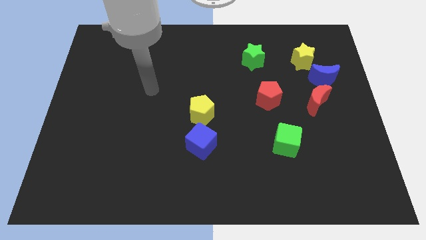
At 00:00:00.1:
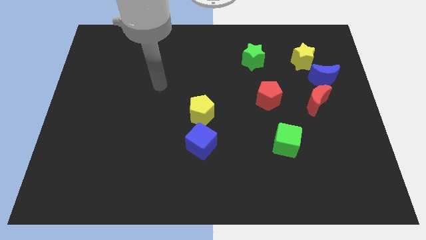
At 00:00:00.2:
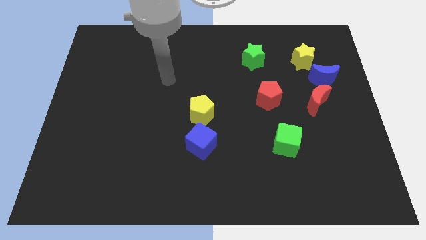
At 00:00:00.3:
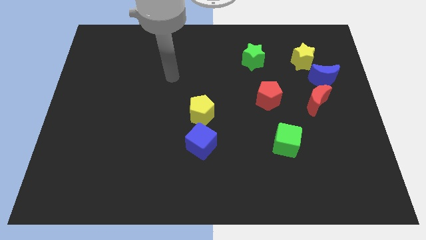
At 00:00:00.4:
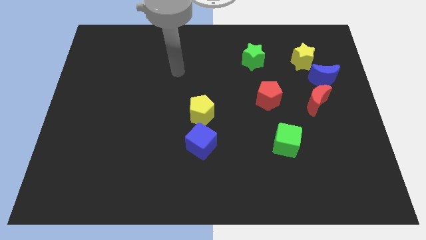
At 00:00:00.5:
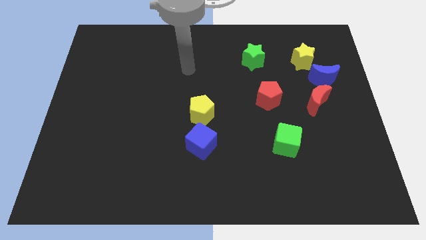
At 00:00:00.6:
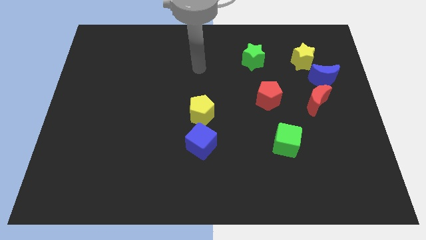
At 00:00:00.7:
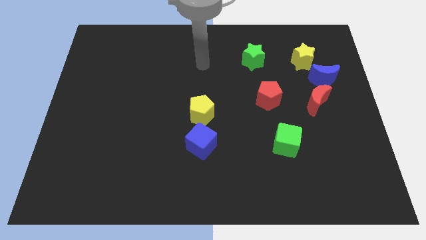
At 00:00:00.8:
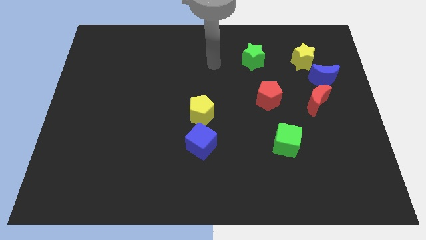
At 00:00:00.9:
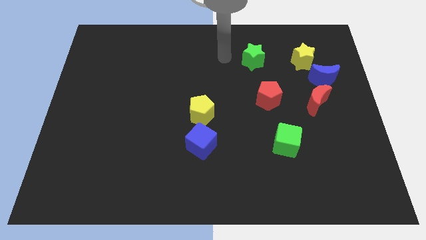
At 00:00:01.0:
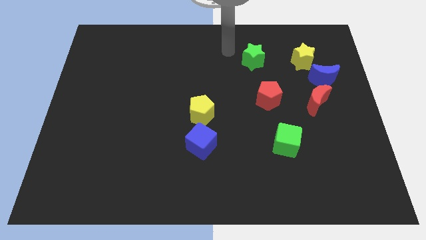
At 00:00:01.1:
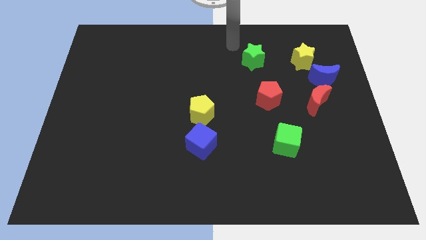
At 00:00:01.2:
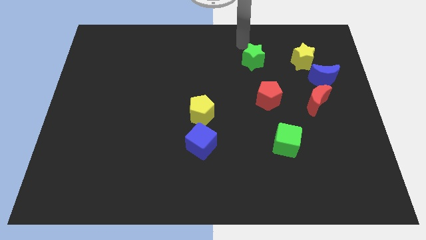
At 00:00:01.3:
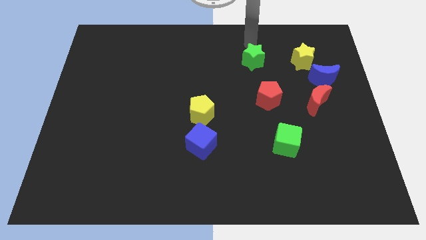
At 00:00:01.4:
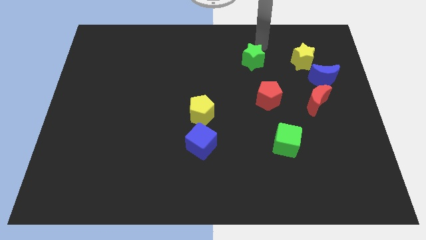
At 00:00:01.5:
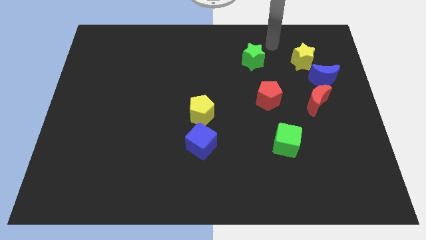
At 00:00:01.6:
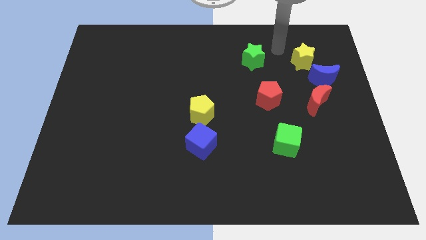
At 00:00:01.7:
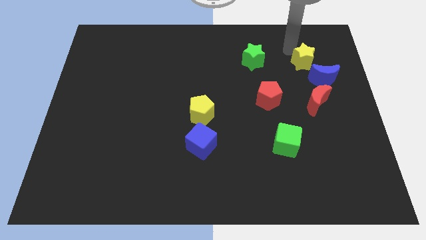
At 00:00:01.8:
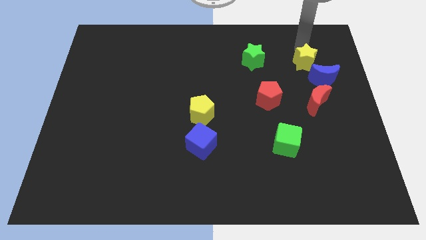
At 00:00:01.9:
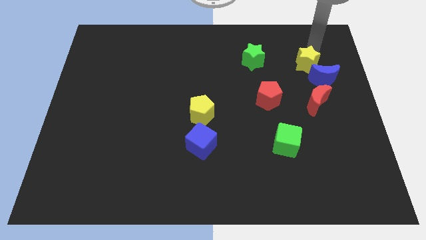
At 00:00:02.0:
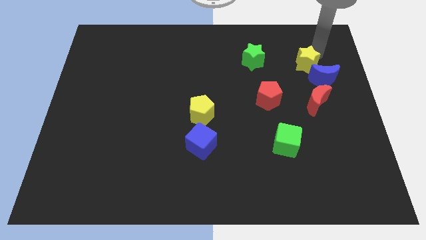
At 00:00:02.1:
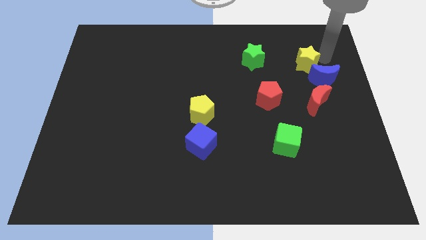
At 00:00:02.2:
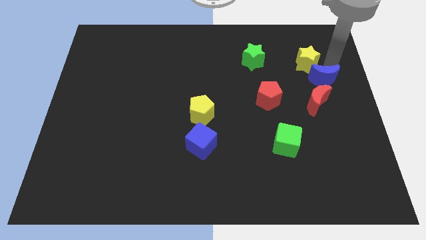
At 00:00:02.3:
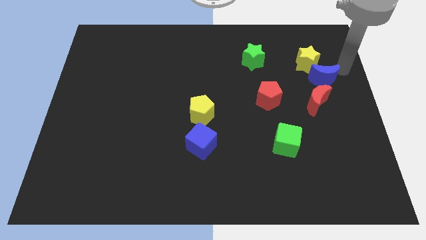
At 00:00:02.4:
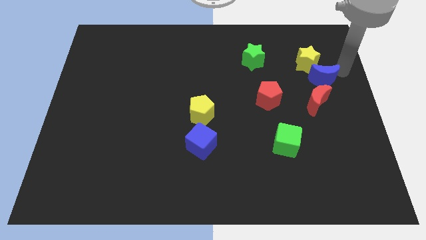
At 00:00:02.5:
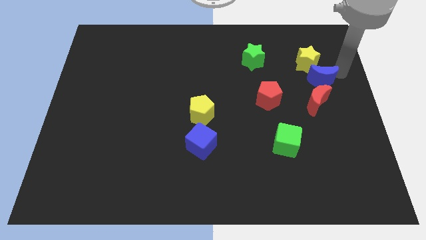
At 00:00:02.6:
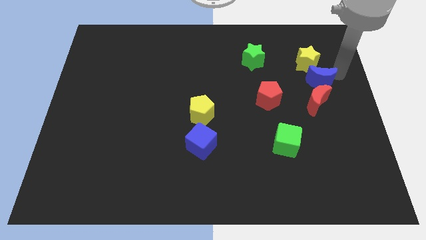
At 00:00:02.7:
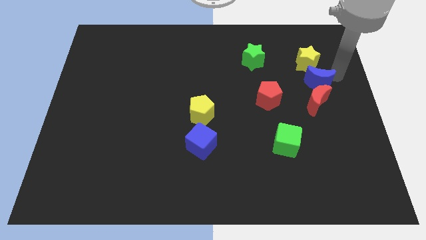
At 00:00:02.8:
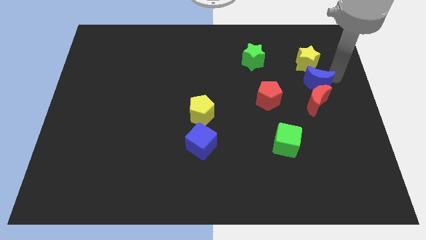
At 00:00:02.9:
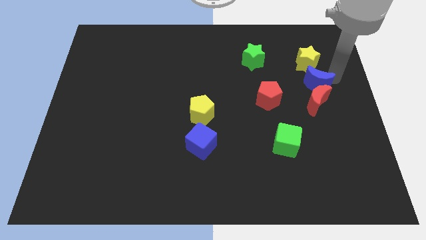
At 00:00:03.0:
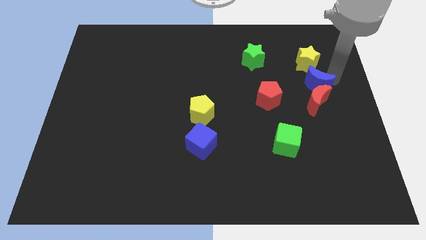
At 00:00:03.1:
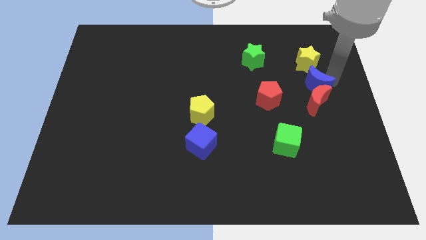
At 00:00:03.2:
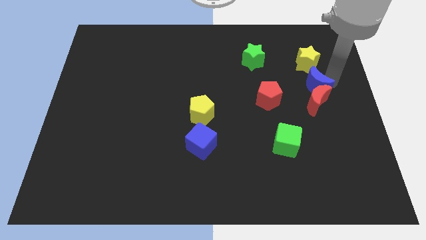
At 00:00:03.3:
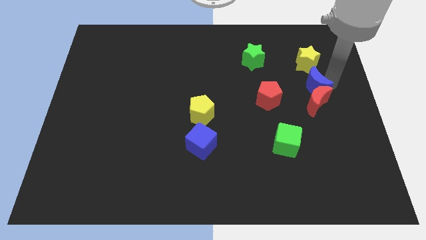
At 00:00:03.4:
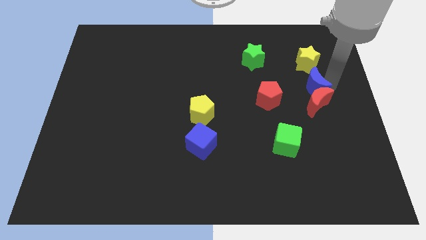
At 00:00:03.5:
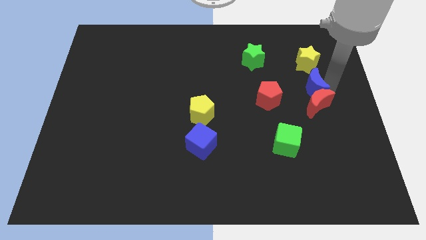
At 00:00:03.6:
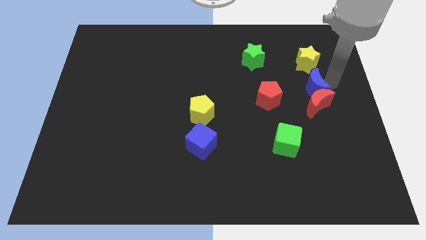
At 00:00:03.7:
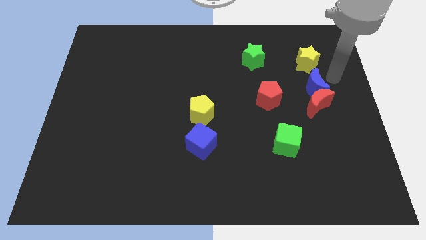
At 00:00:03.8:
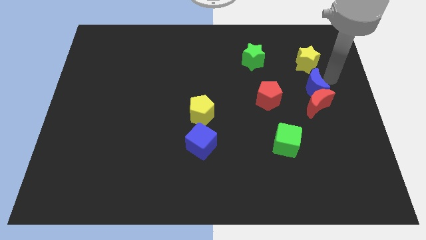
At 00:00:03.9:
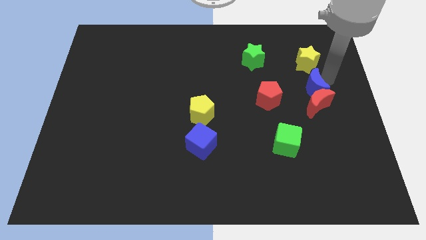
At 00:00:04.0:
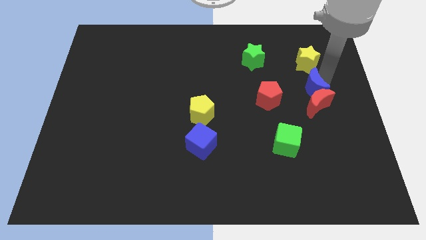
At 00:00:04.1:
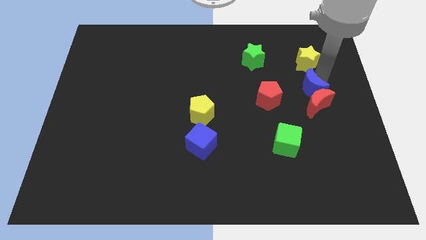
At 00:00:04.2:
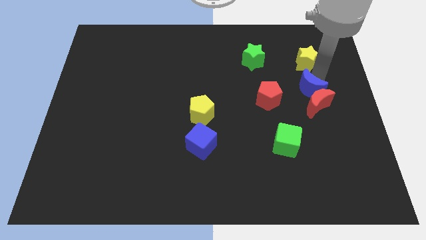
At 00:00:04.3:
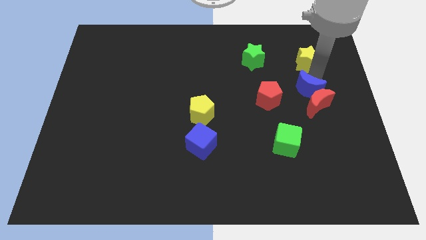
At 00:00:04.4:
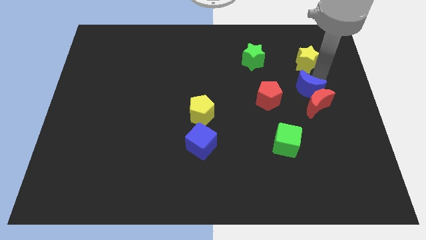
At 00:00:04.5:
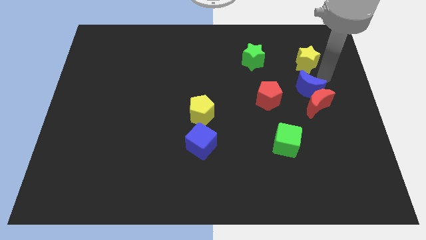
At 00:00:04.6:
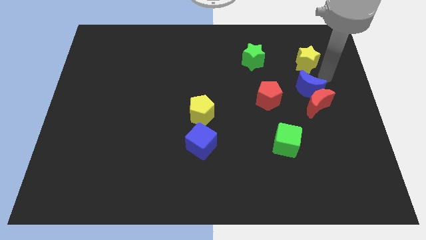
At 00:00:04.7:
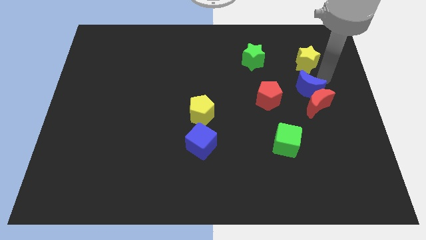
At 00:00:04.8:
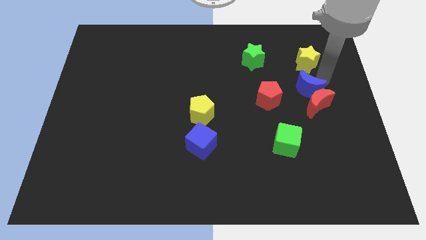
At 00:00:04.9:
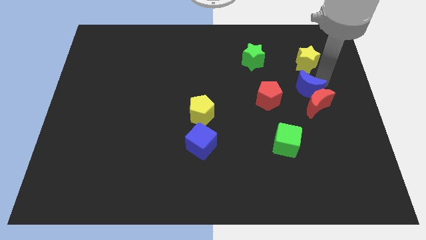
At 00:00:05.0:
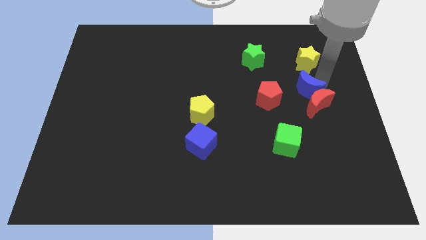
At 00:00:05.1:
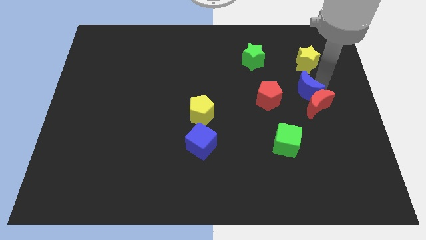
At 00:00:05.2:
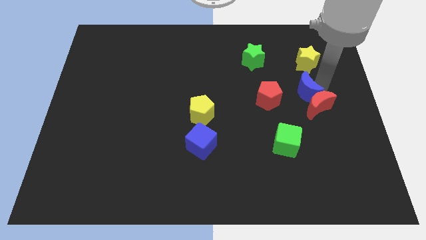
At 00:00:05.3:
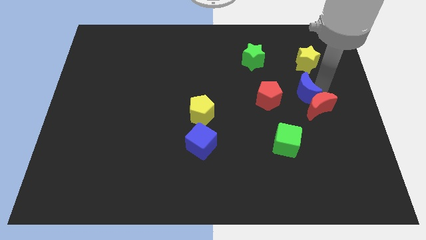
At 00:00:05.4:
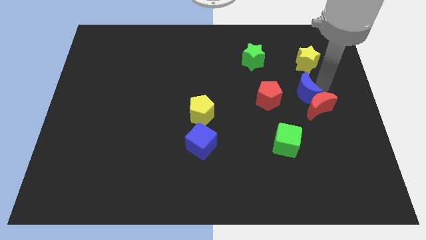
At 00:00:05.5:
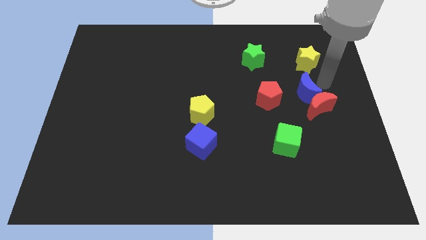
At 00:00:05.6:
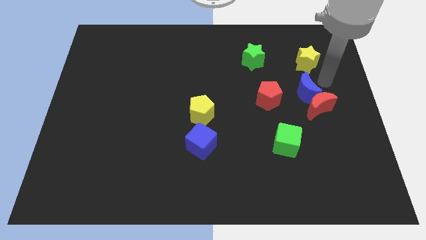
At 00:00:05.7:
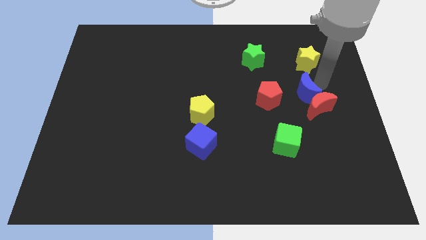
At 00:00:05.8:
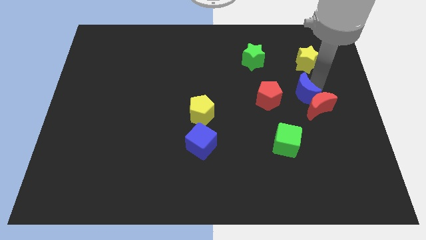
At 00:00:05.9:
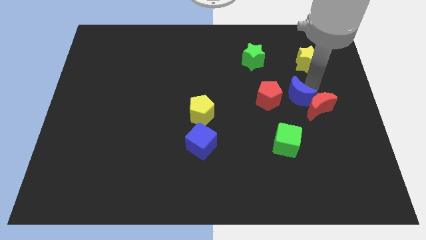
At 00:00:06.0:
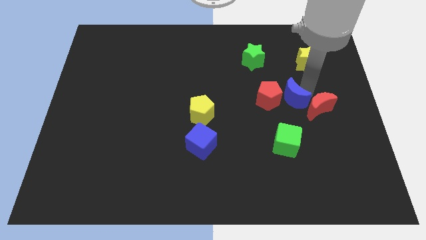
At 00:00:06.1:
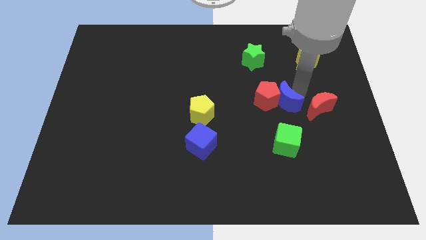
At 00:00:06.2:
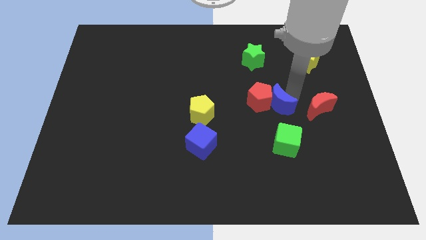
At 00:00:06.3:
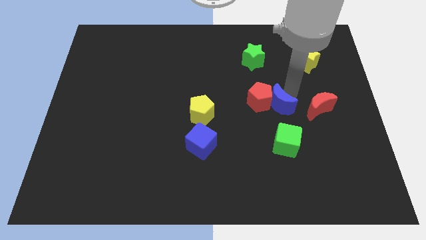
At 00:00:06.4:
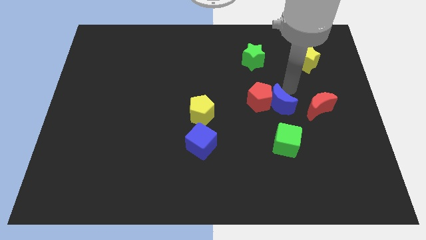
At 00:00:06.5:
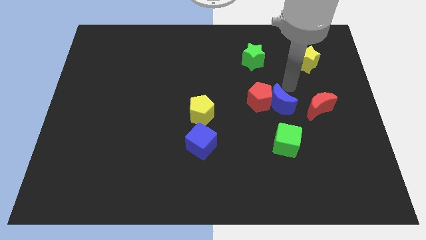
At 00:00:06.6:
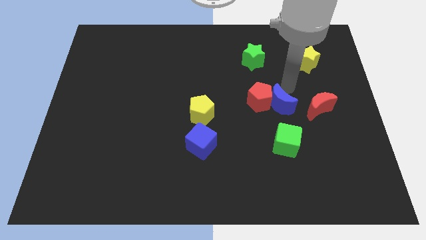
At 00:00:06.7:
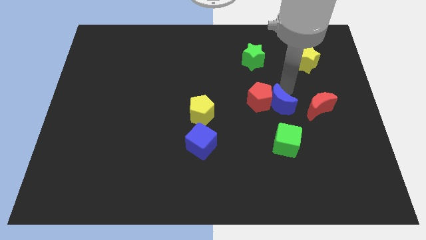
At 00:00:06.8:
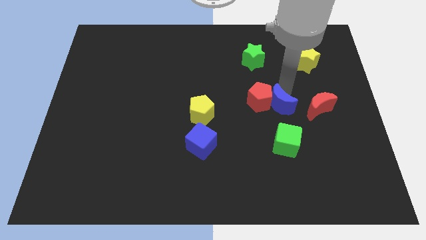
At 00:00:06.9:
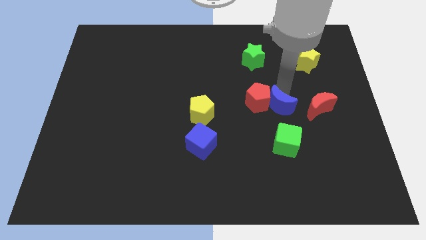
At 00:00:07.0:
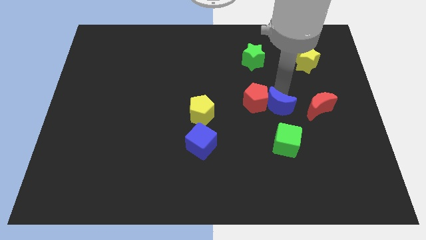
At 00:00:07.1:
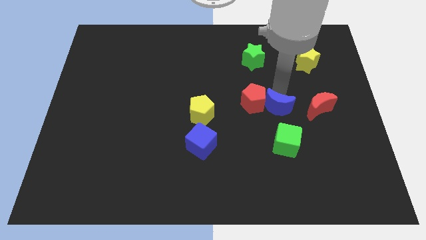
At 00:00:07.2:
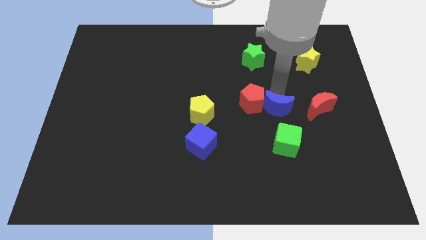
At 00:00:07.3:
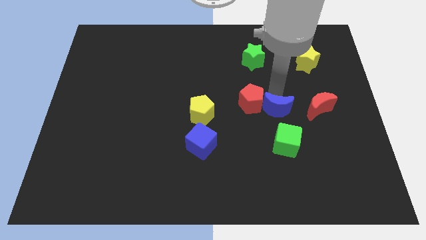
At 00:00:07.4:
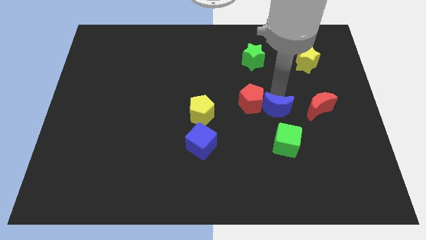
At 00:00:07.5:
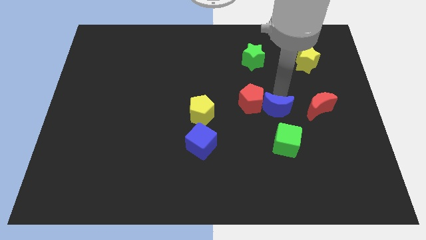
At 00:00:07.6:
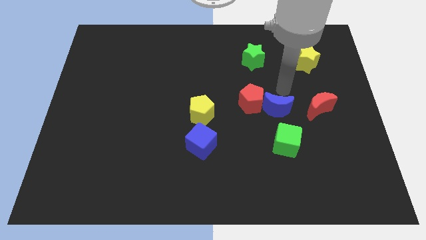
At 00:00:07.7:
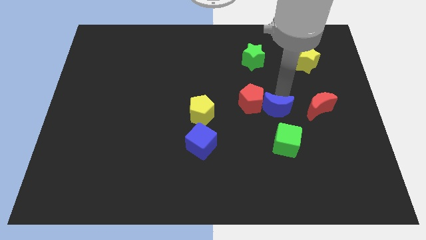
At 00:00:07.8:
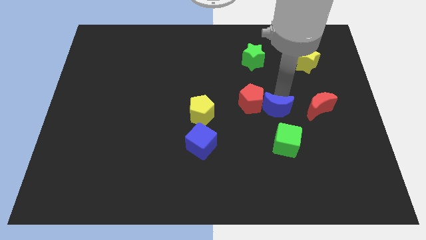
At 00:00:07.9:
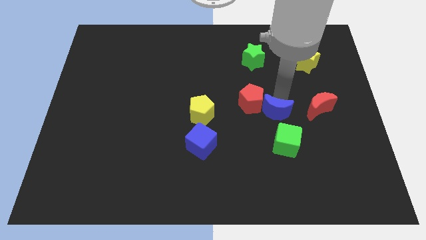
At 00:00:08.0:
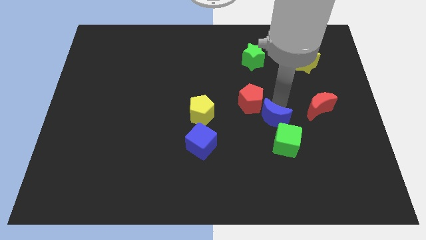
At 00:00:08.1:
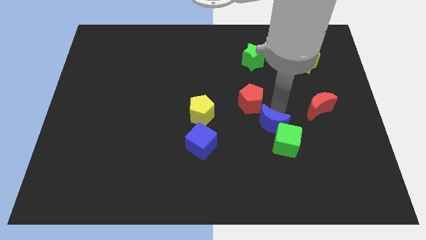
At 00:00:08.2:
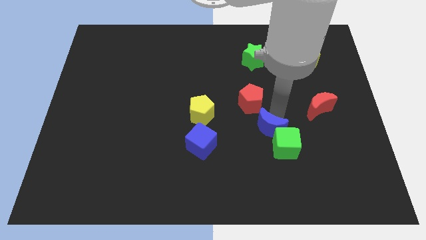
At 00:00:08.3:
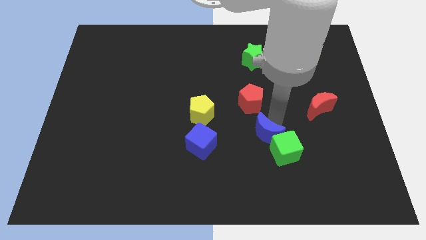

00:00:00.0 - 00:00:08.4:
push the blue moon to the right side of the blue cube
